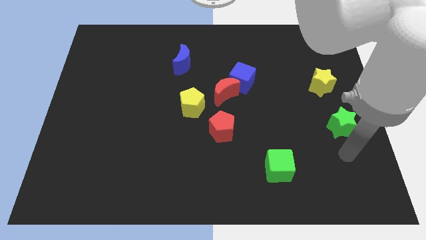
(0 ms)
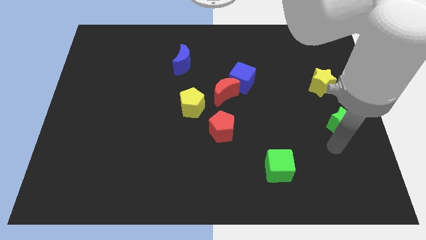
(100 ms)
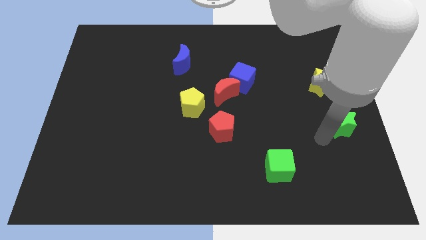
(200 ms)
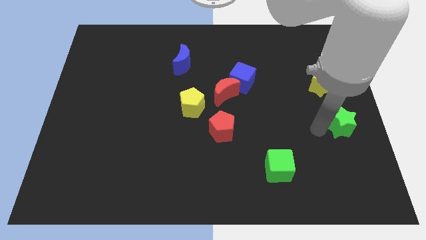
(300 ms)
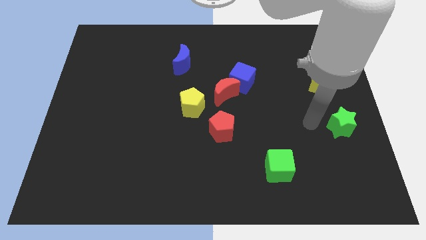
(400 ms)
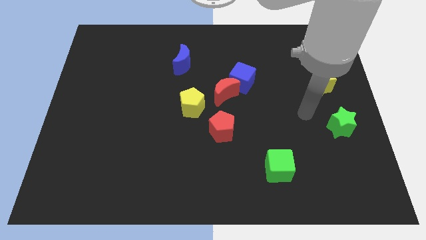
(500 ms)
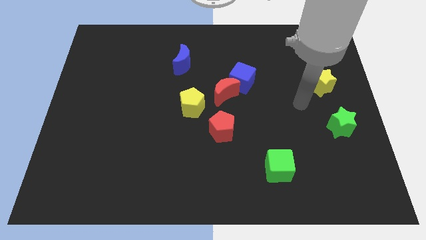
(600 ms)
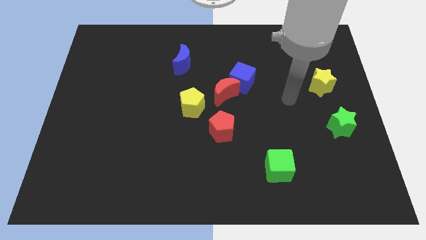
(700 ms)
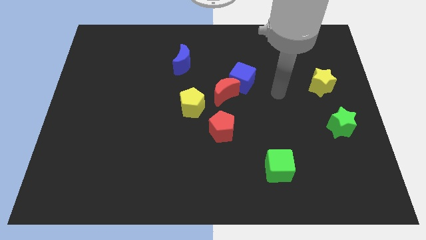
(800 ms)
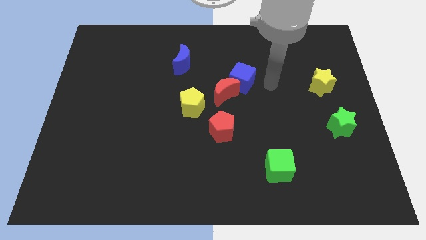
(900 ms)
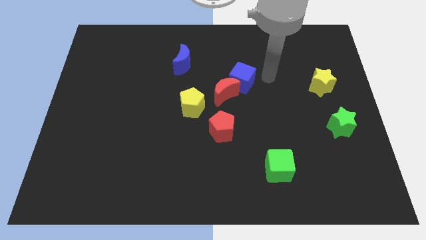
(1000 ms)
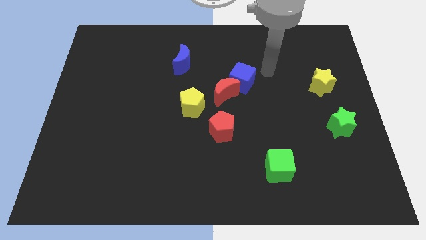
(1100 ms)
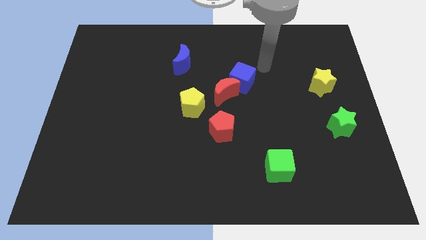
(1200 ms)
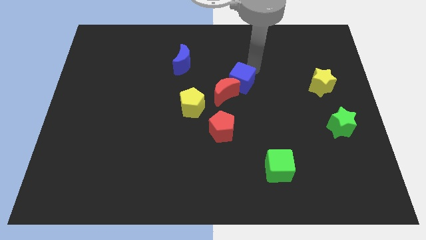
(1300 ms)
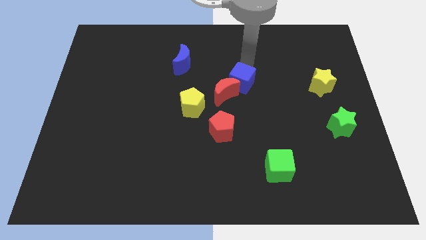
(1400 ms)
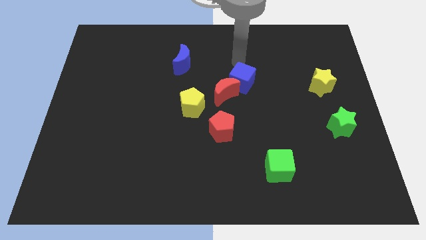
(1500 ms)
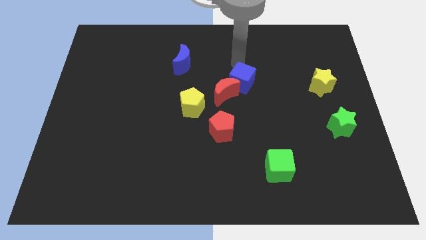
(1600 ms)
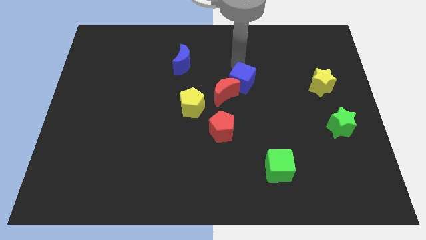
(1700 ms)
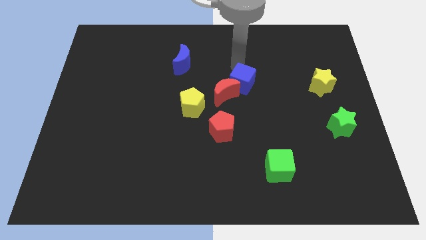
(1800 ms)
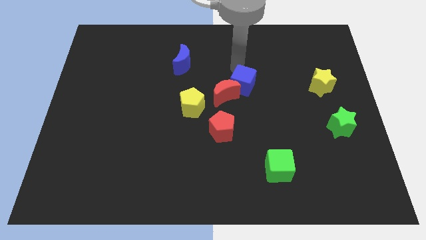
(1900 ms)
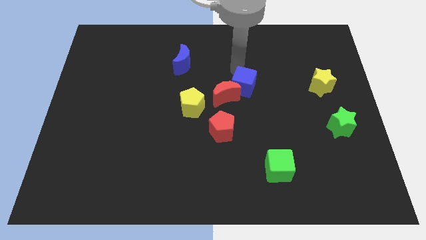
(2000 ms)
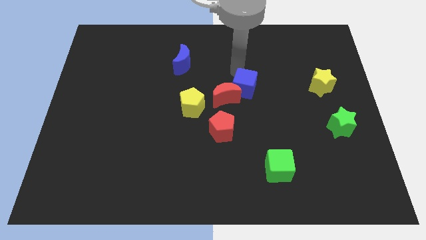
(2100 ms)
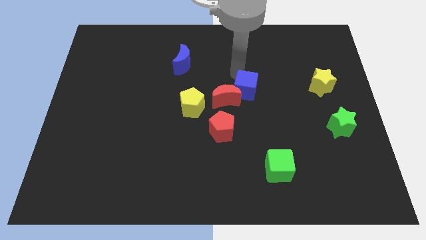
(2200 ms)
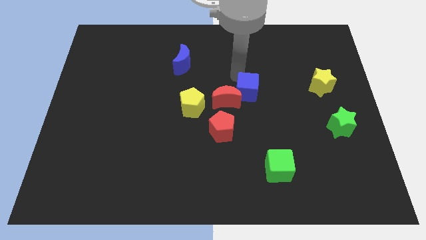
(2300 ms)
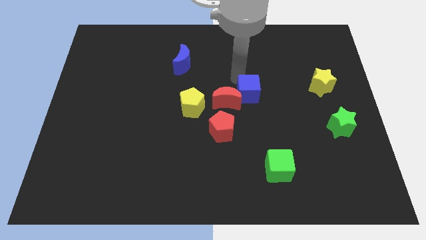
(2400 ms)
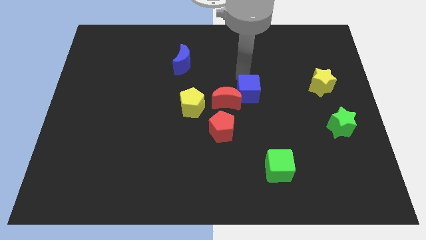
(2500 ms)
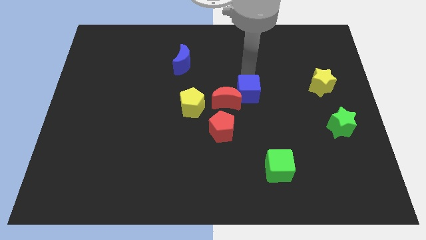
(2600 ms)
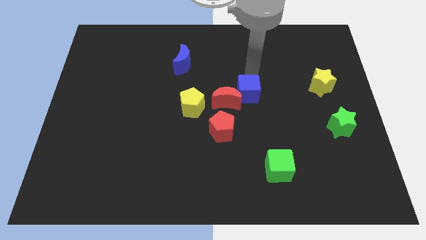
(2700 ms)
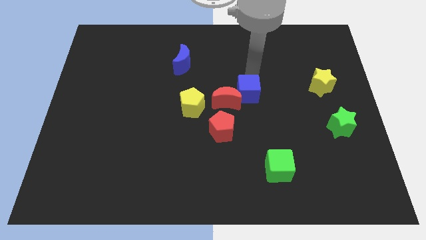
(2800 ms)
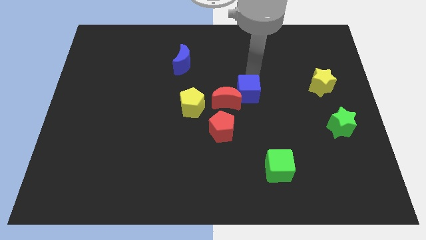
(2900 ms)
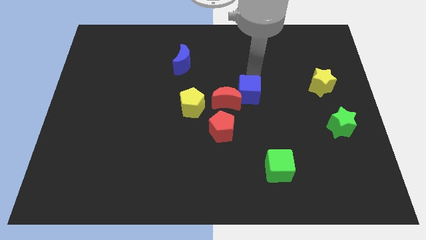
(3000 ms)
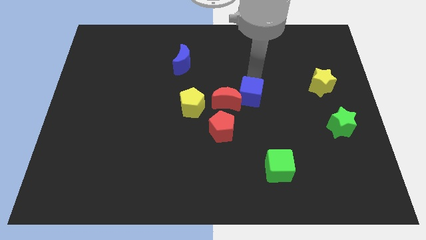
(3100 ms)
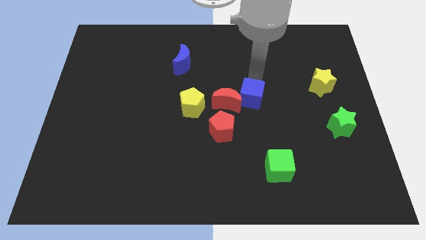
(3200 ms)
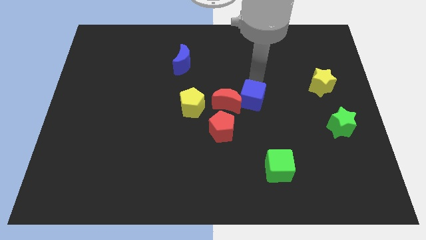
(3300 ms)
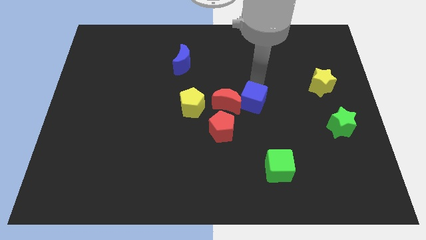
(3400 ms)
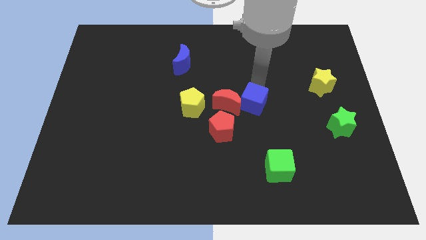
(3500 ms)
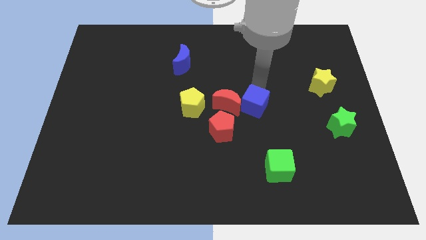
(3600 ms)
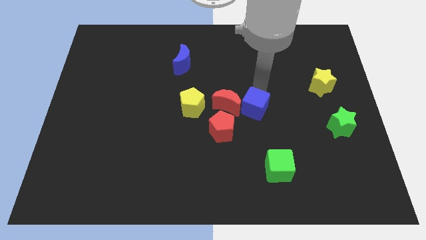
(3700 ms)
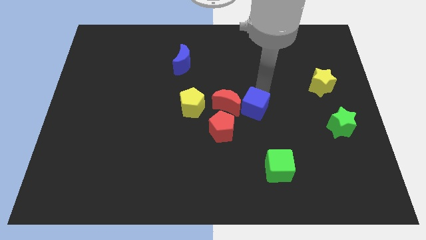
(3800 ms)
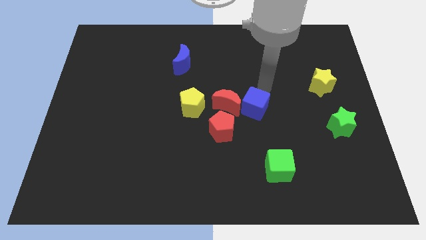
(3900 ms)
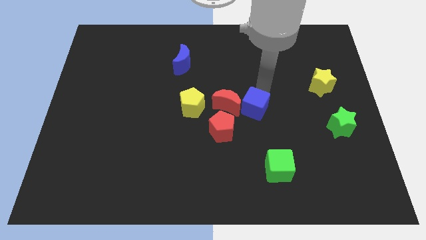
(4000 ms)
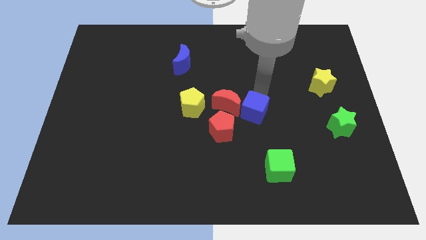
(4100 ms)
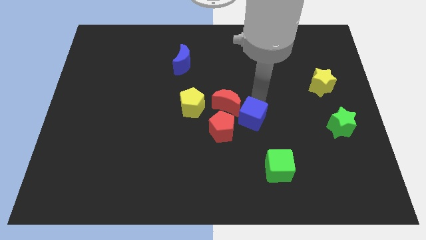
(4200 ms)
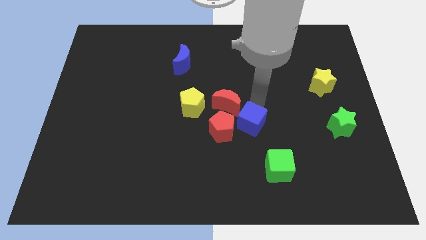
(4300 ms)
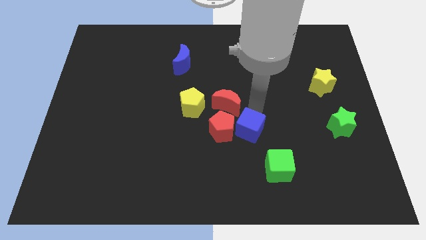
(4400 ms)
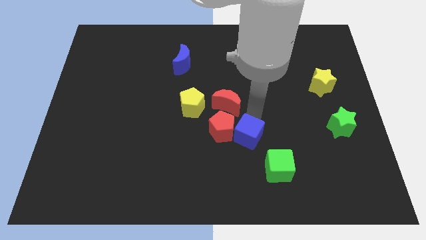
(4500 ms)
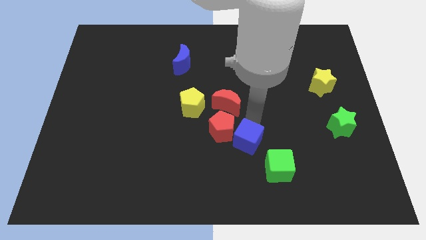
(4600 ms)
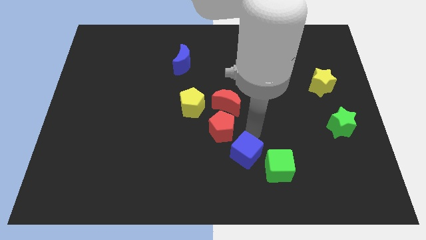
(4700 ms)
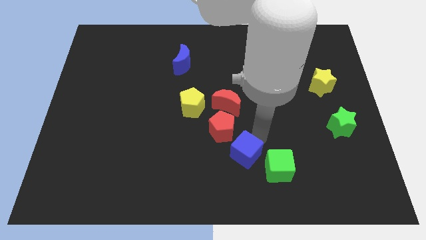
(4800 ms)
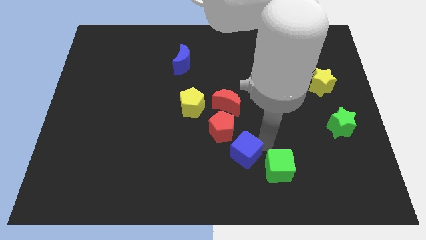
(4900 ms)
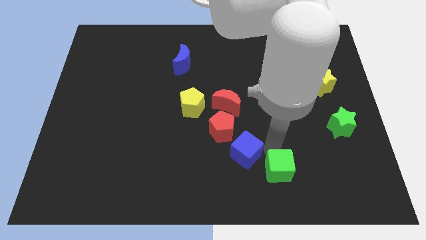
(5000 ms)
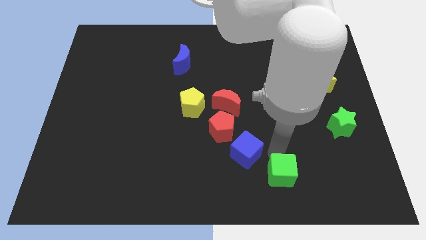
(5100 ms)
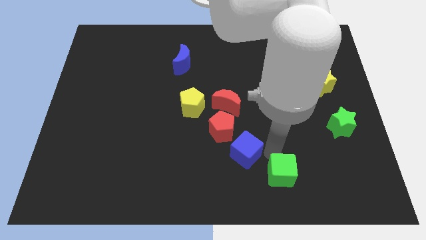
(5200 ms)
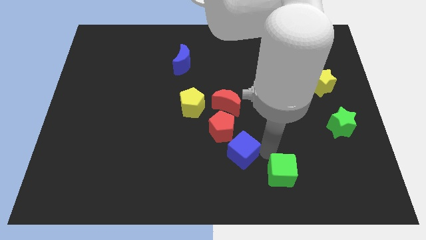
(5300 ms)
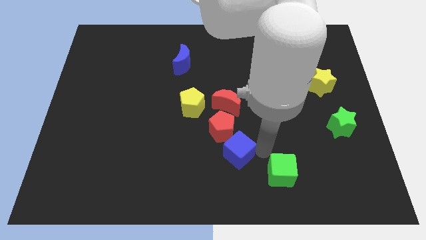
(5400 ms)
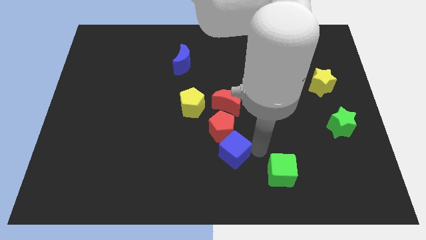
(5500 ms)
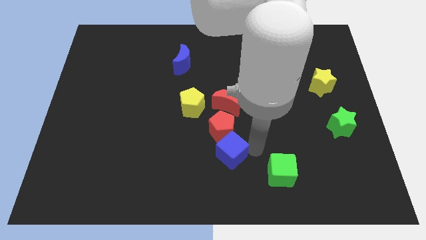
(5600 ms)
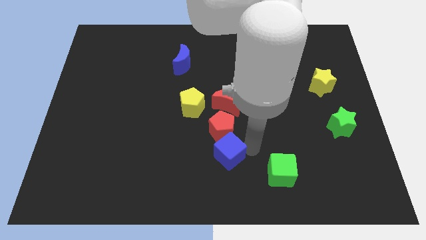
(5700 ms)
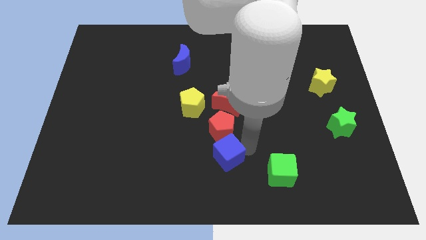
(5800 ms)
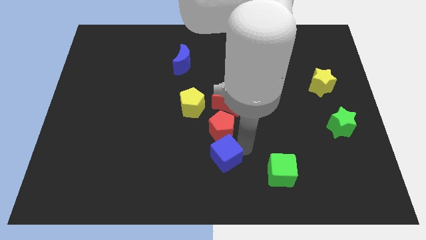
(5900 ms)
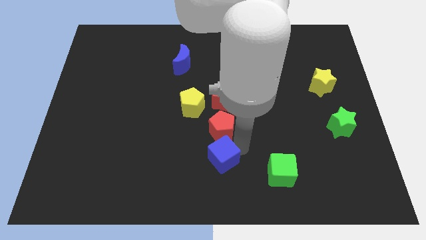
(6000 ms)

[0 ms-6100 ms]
move the blue cube diagonally down and to the left of the red pentagon

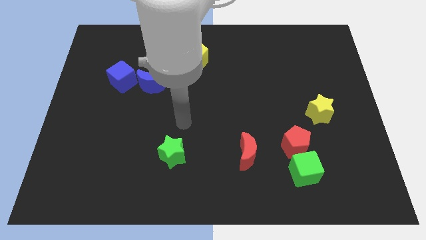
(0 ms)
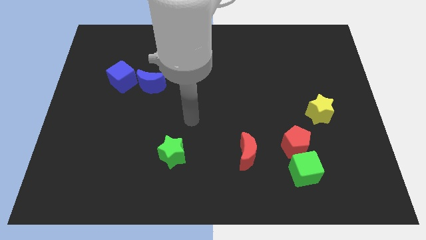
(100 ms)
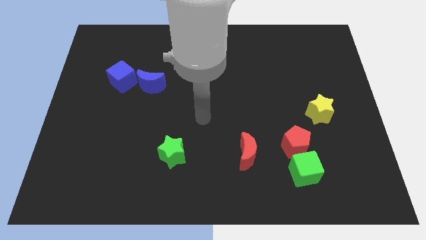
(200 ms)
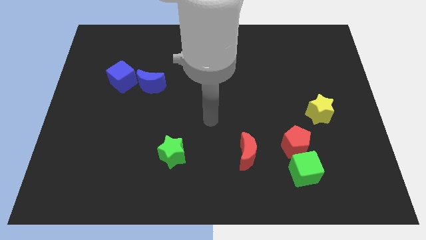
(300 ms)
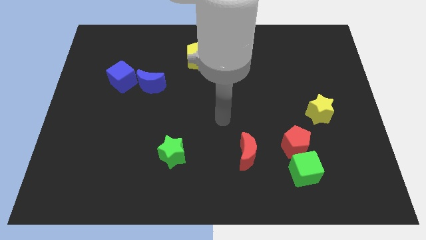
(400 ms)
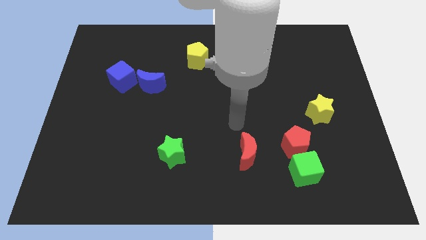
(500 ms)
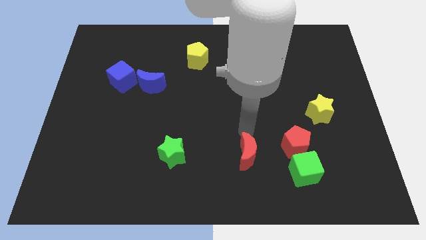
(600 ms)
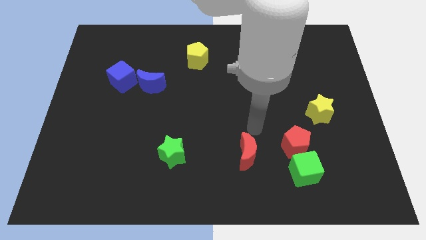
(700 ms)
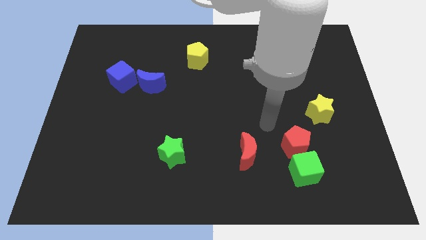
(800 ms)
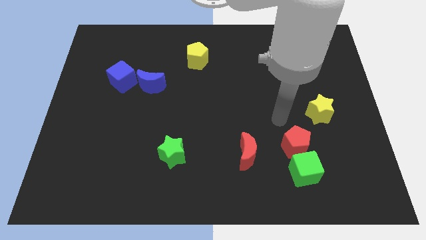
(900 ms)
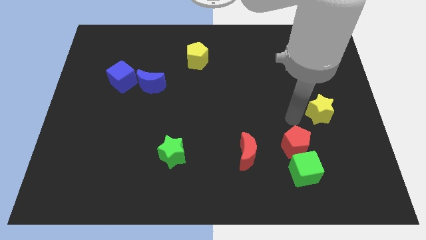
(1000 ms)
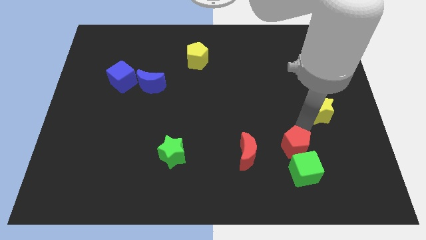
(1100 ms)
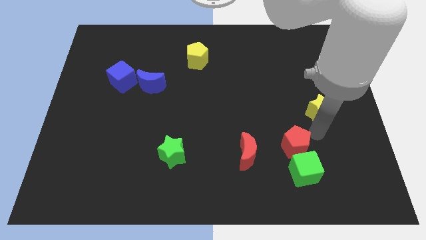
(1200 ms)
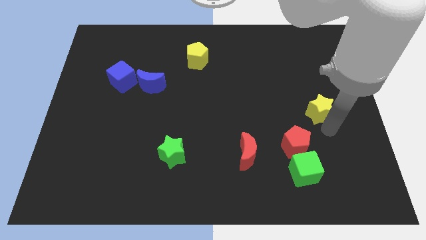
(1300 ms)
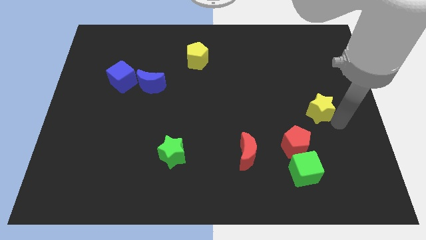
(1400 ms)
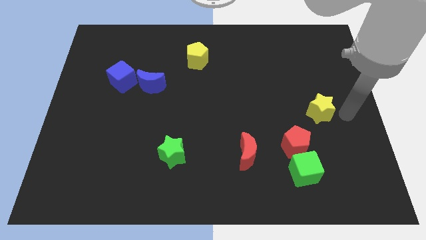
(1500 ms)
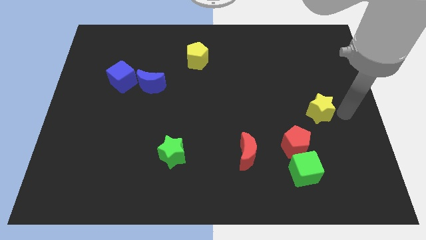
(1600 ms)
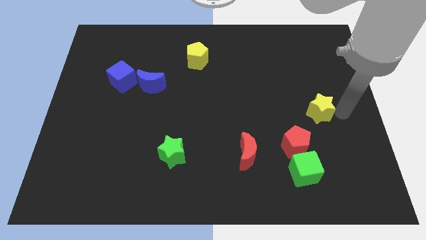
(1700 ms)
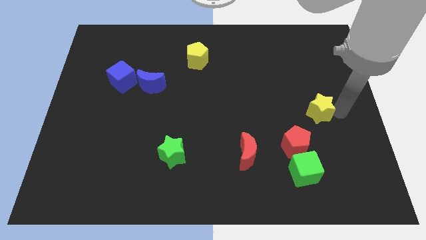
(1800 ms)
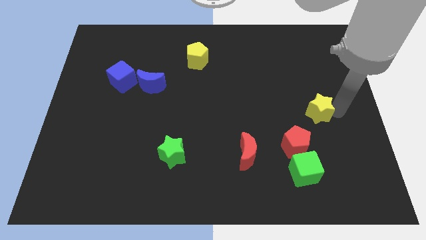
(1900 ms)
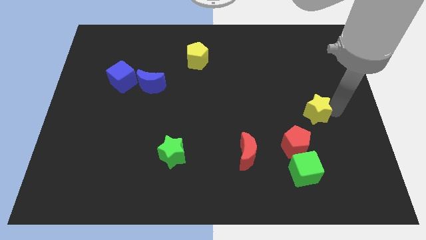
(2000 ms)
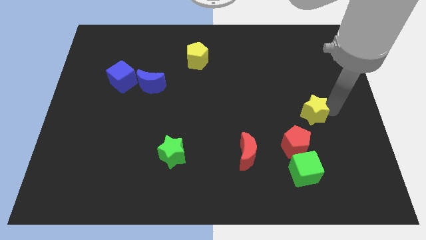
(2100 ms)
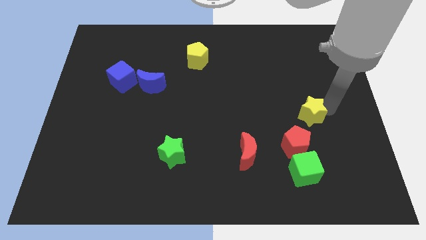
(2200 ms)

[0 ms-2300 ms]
slide the yellow star to the top side of the red pentagon
